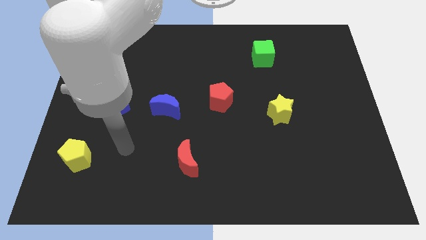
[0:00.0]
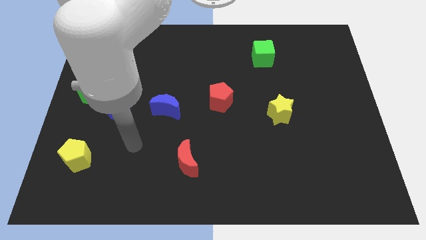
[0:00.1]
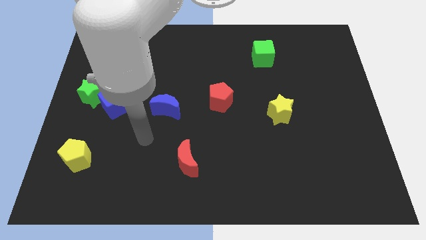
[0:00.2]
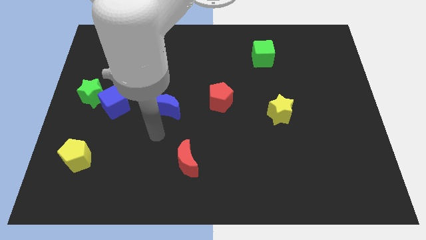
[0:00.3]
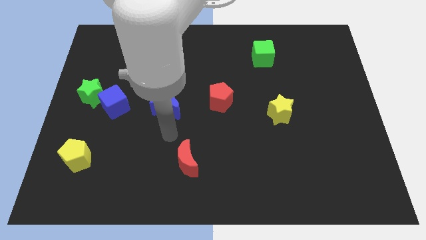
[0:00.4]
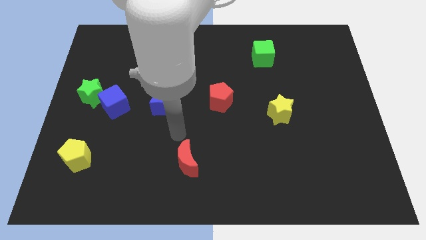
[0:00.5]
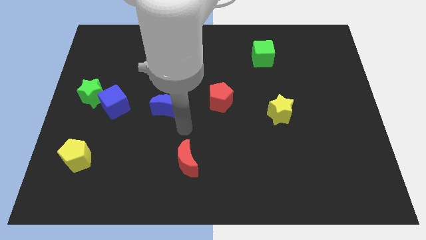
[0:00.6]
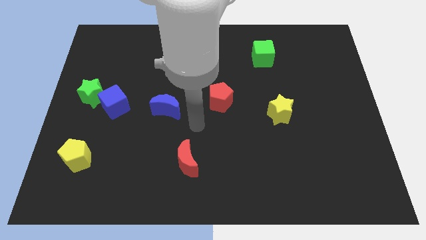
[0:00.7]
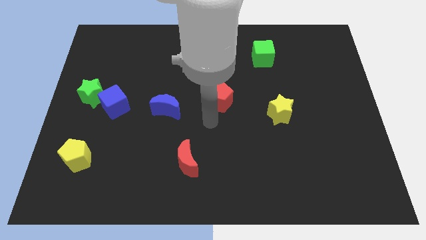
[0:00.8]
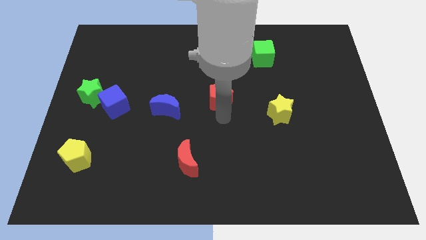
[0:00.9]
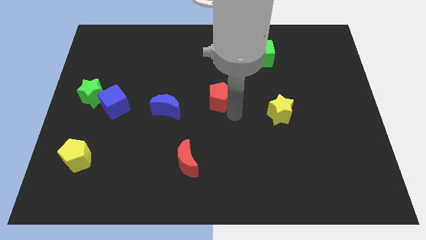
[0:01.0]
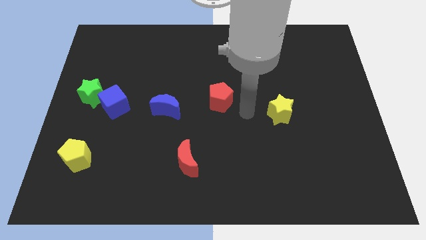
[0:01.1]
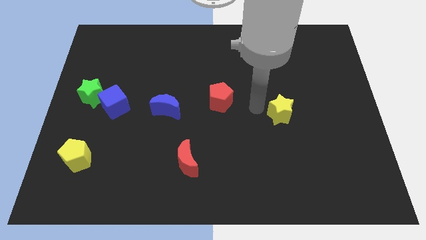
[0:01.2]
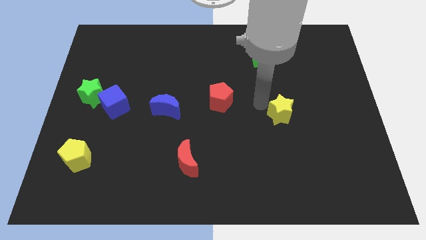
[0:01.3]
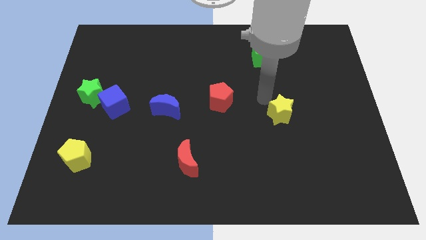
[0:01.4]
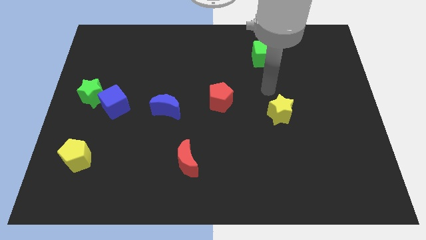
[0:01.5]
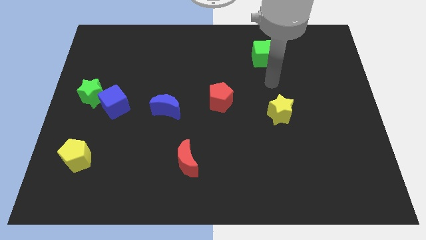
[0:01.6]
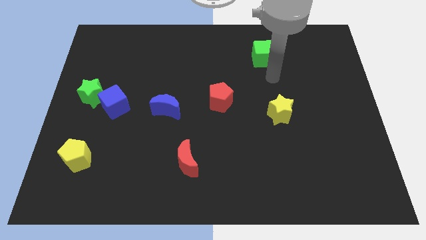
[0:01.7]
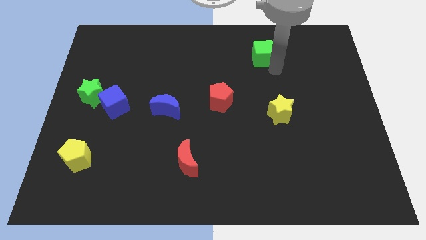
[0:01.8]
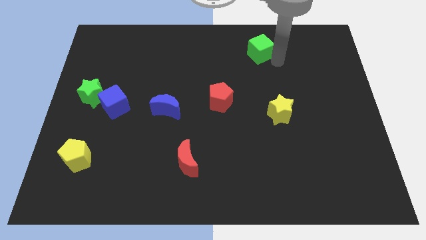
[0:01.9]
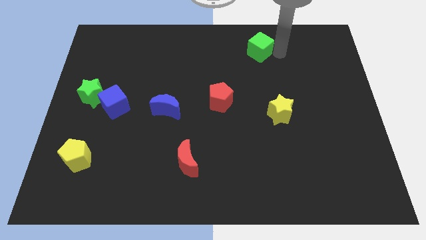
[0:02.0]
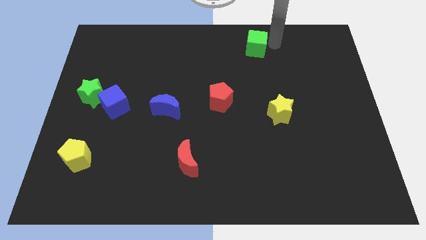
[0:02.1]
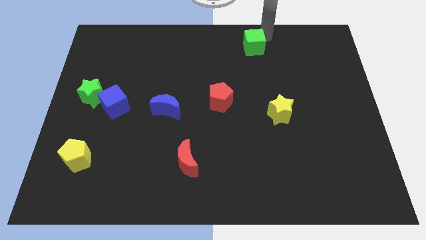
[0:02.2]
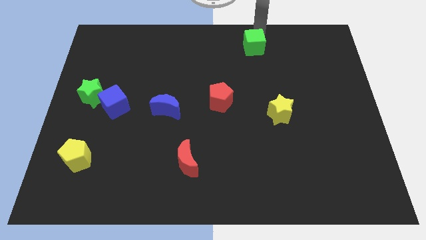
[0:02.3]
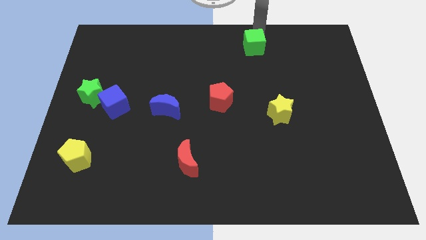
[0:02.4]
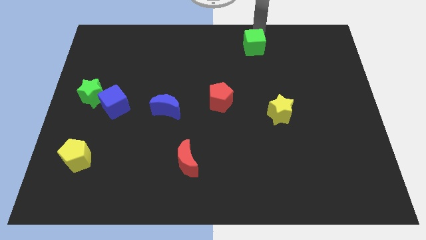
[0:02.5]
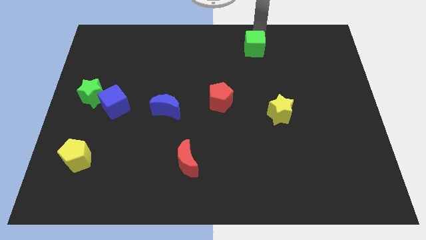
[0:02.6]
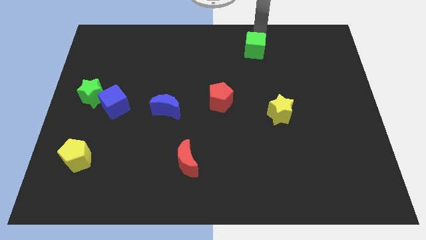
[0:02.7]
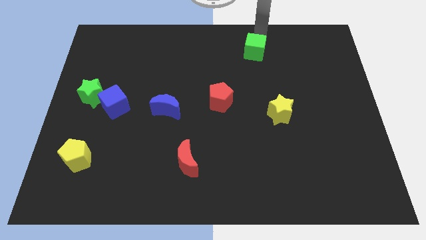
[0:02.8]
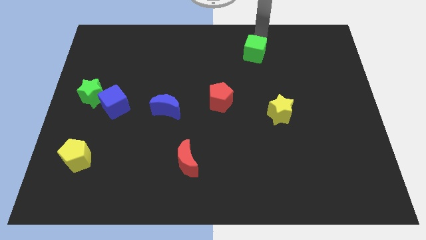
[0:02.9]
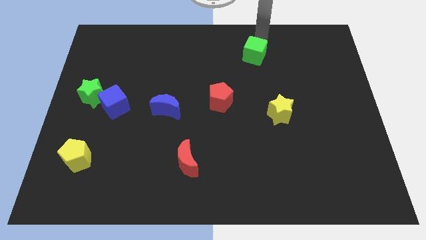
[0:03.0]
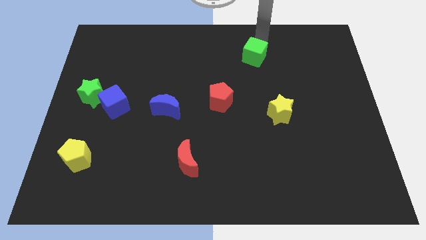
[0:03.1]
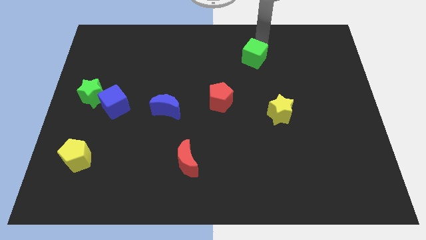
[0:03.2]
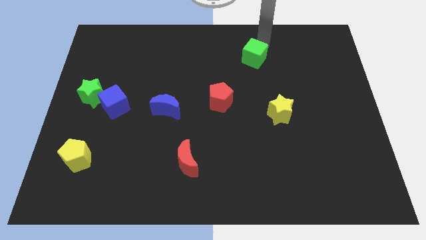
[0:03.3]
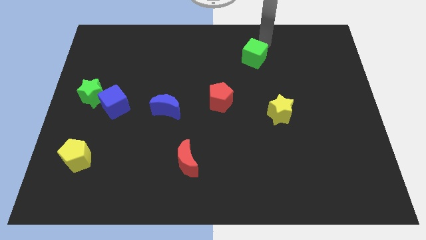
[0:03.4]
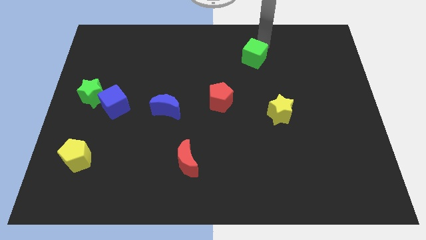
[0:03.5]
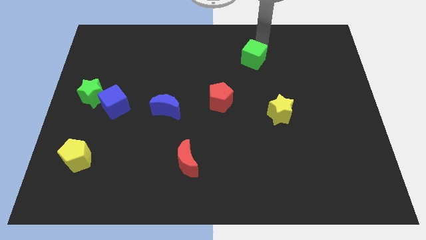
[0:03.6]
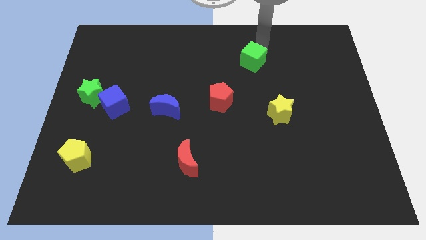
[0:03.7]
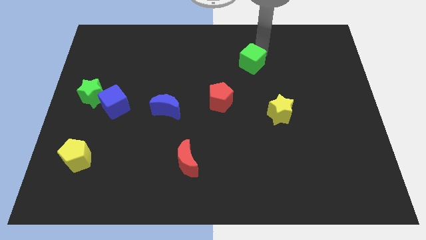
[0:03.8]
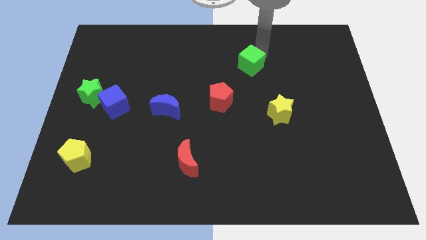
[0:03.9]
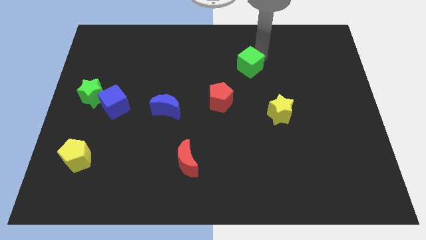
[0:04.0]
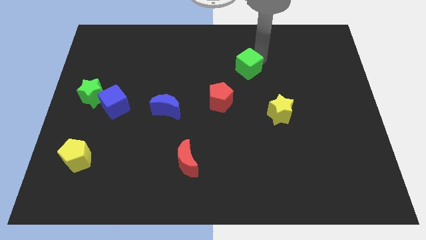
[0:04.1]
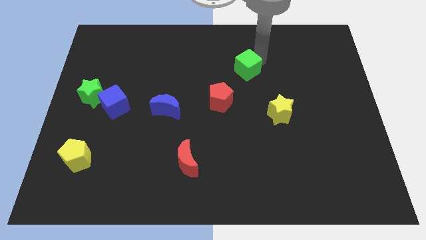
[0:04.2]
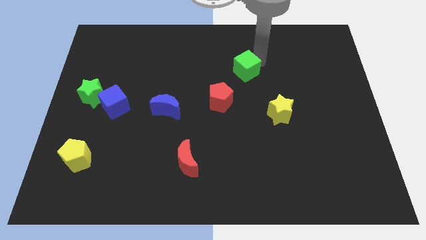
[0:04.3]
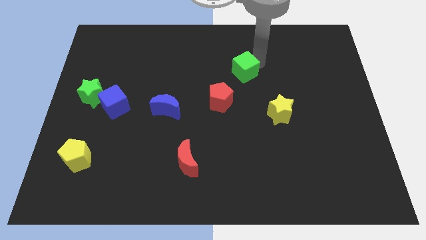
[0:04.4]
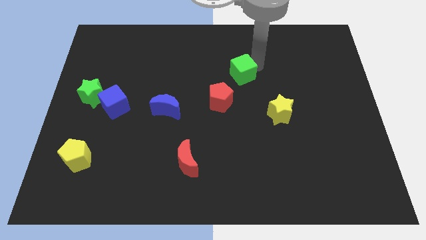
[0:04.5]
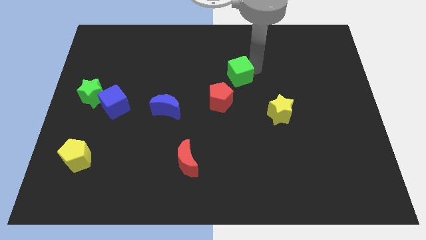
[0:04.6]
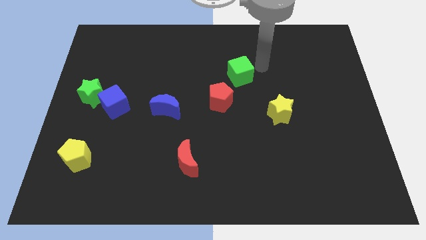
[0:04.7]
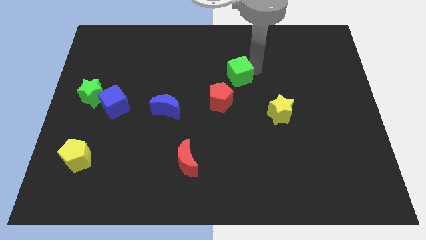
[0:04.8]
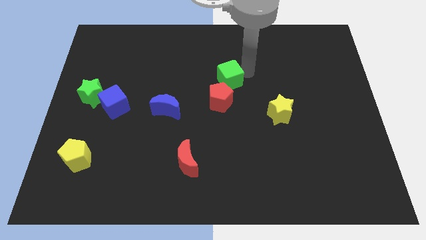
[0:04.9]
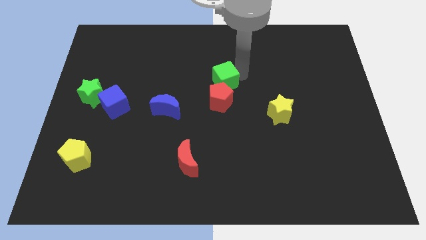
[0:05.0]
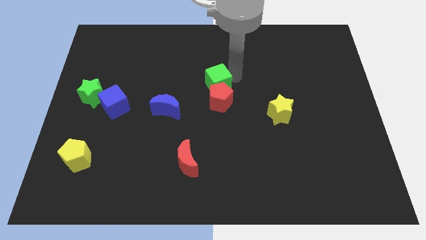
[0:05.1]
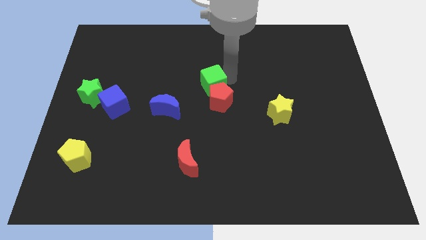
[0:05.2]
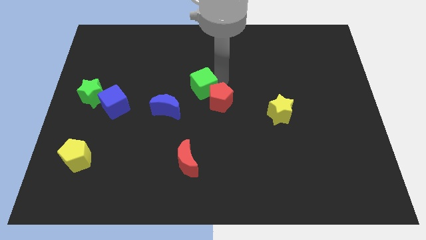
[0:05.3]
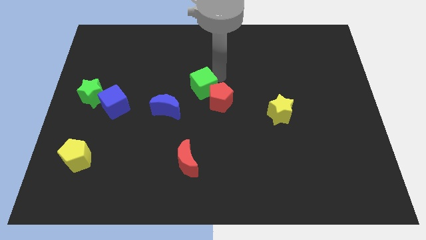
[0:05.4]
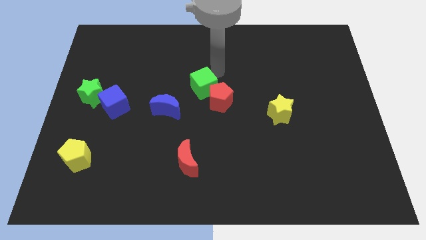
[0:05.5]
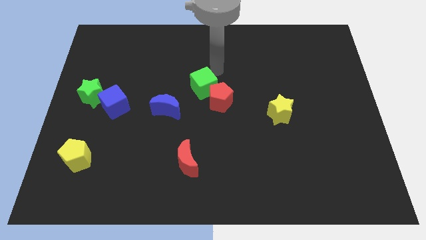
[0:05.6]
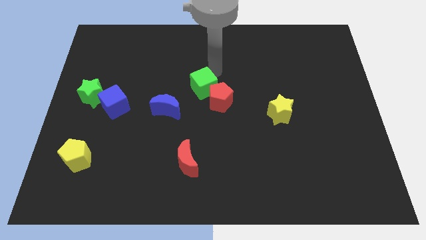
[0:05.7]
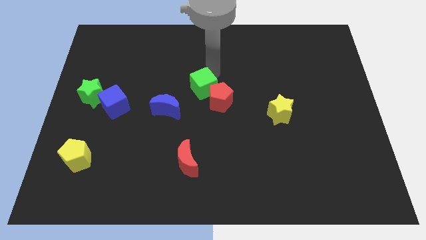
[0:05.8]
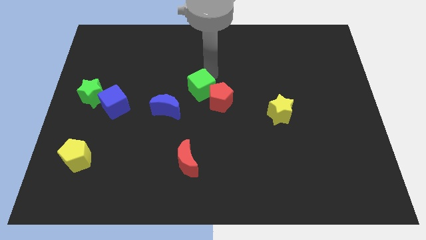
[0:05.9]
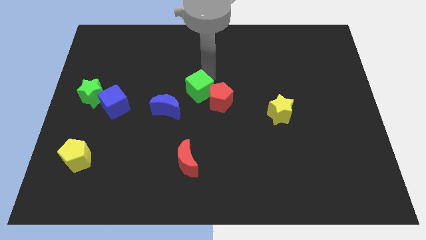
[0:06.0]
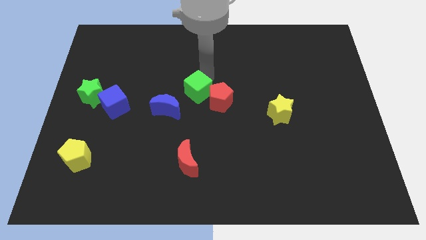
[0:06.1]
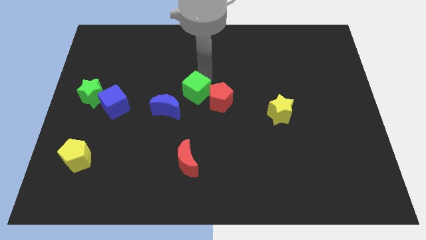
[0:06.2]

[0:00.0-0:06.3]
move the green cube downwards and left diagonally

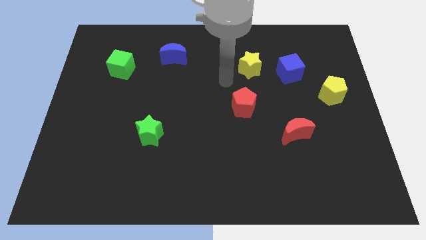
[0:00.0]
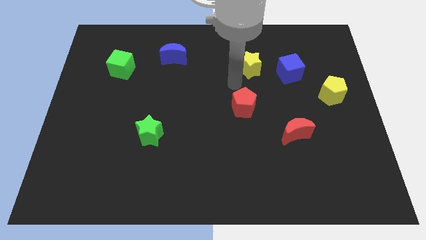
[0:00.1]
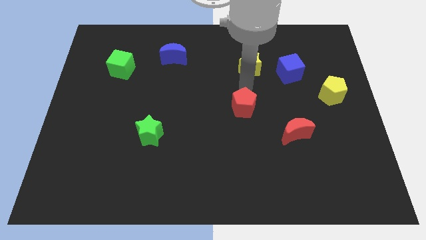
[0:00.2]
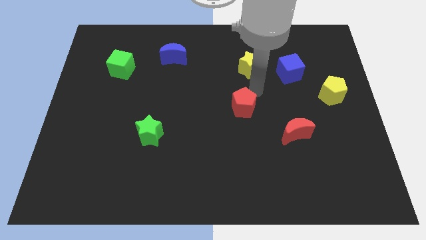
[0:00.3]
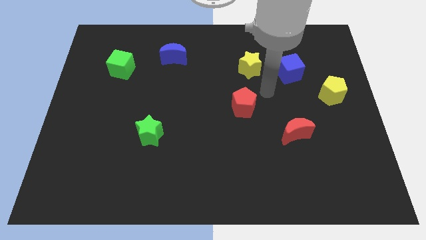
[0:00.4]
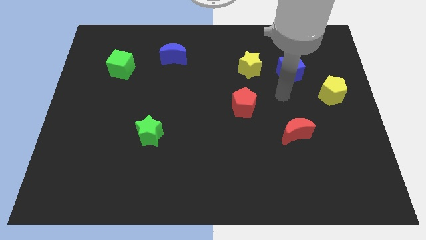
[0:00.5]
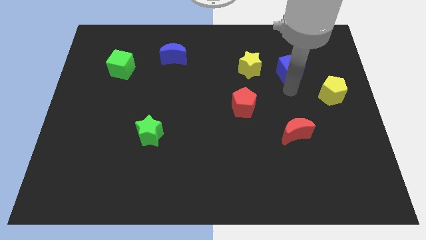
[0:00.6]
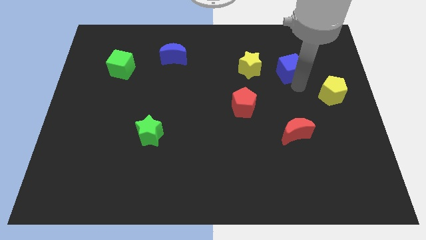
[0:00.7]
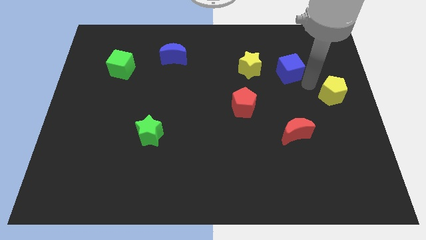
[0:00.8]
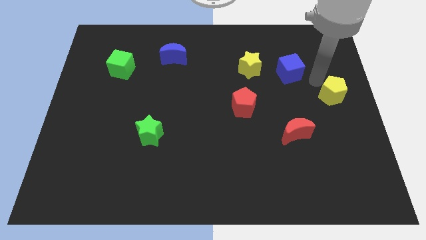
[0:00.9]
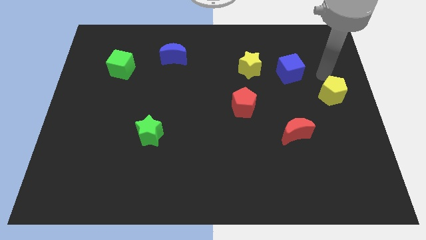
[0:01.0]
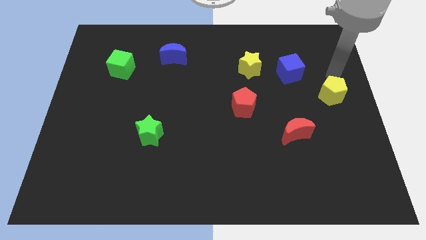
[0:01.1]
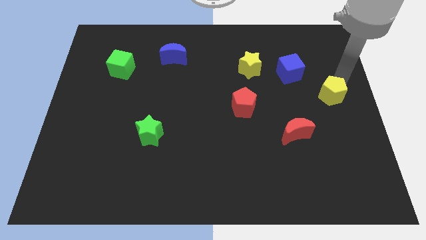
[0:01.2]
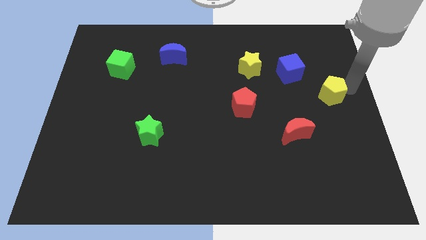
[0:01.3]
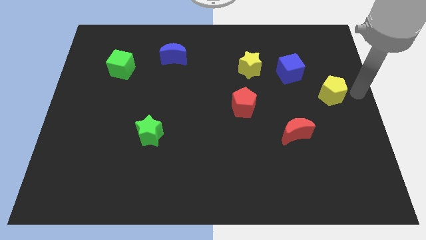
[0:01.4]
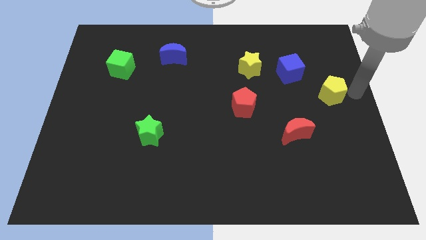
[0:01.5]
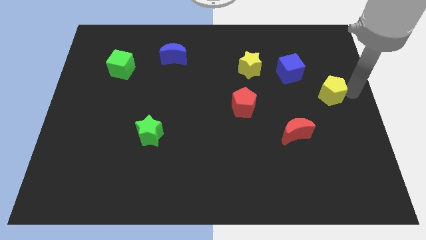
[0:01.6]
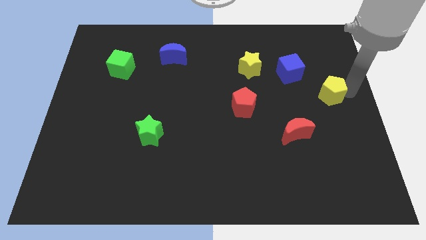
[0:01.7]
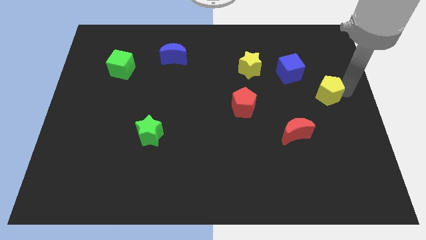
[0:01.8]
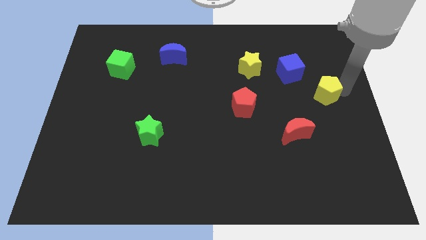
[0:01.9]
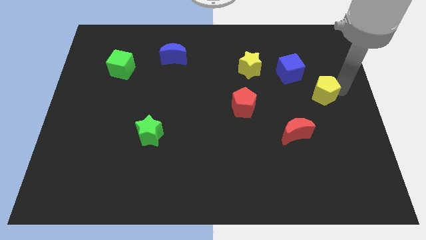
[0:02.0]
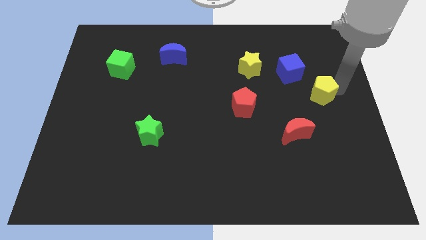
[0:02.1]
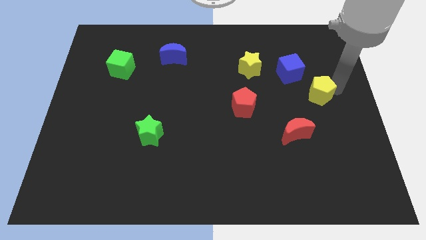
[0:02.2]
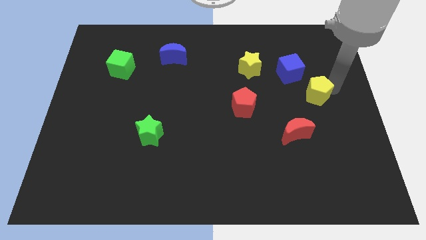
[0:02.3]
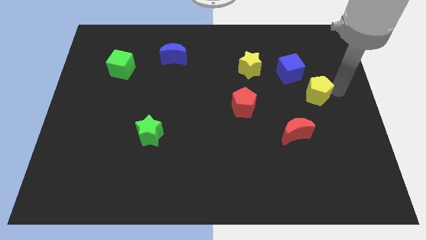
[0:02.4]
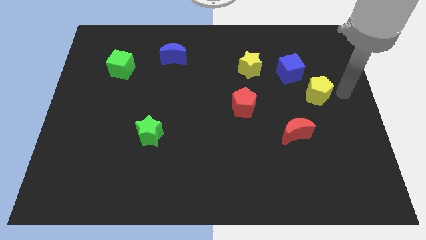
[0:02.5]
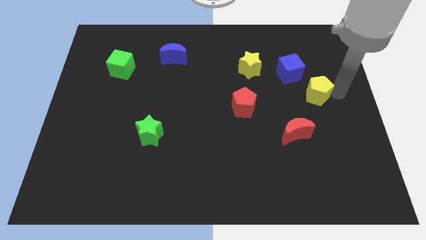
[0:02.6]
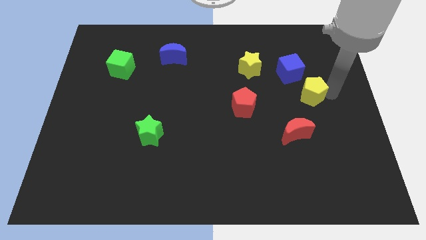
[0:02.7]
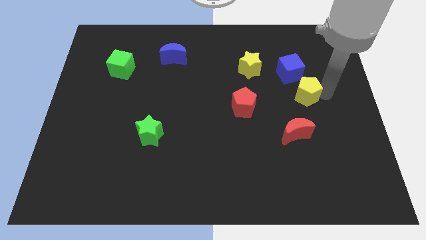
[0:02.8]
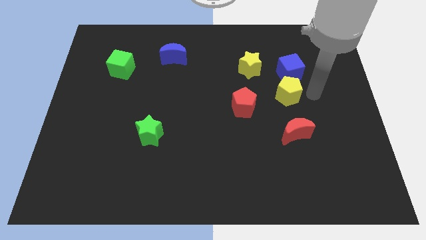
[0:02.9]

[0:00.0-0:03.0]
slide the yellow pentagon left a little bit
